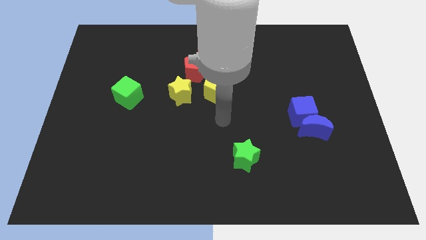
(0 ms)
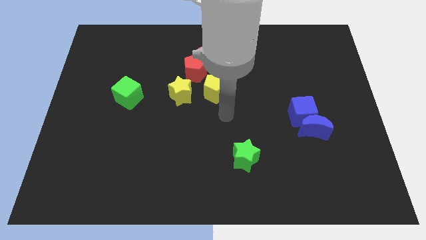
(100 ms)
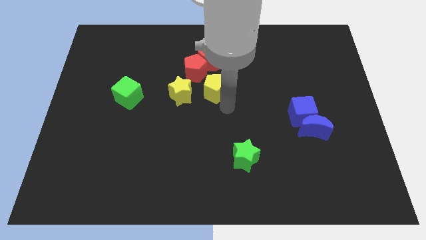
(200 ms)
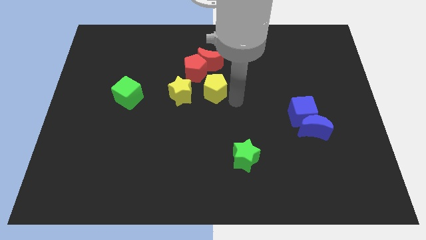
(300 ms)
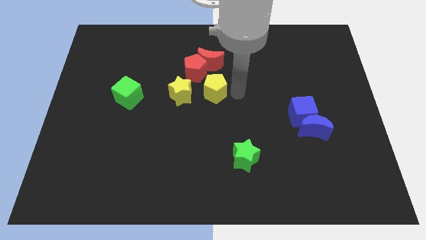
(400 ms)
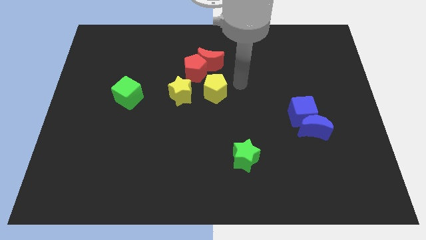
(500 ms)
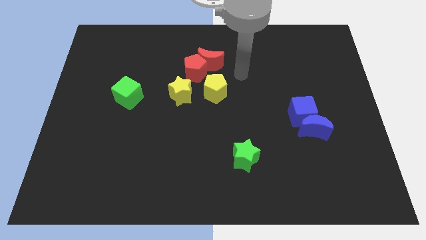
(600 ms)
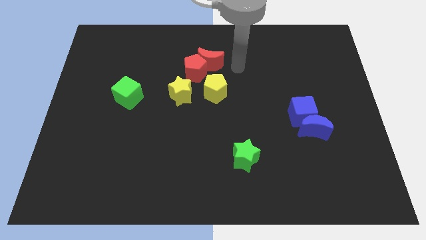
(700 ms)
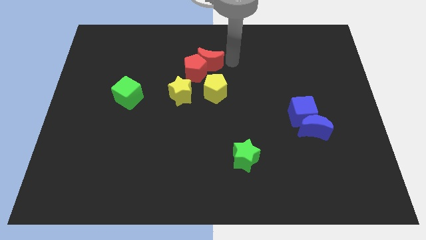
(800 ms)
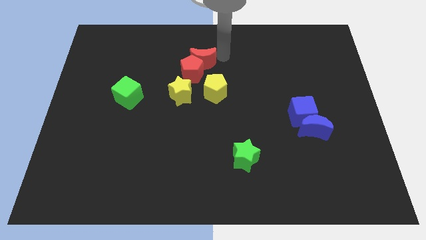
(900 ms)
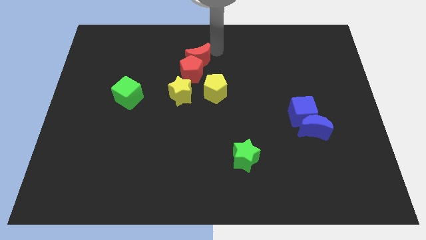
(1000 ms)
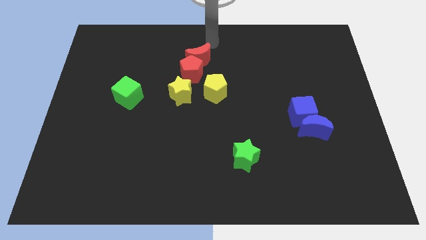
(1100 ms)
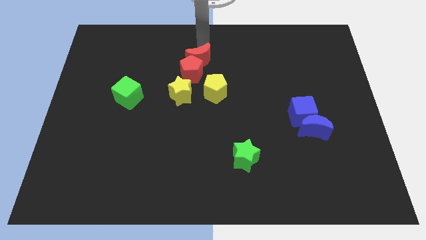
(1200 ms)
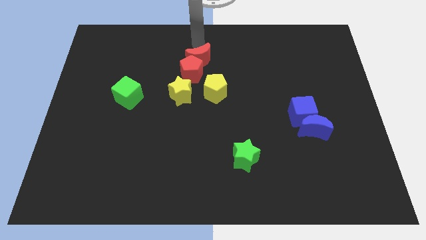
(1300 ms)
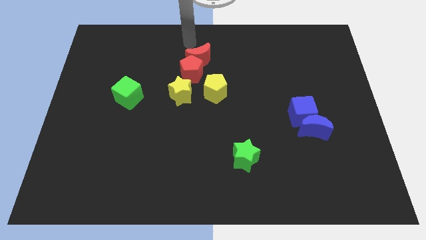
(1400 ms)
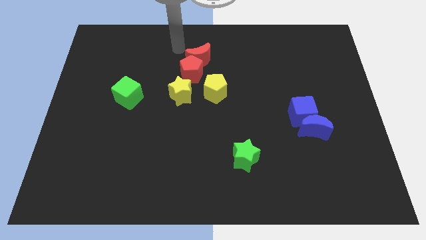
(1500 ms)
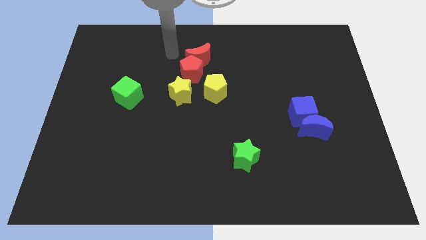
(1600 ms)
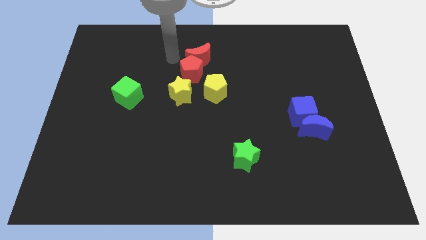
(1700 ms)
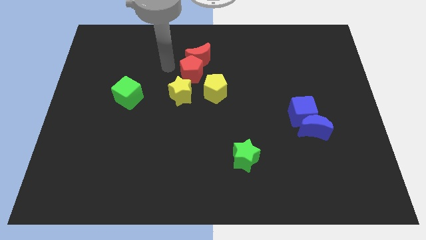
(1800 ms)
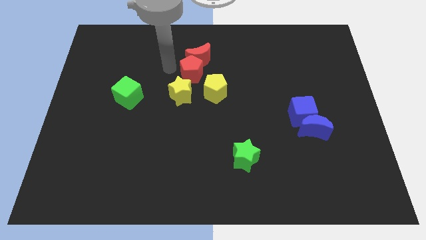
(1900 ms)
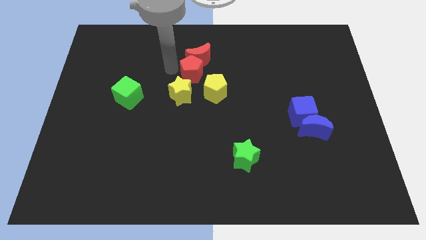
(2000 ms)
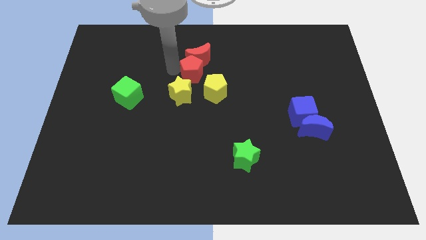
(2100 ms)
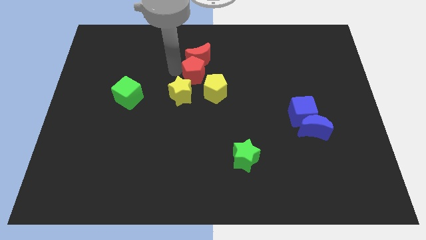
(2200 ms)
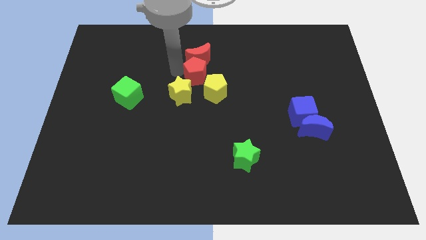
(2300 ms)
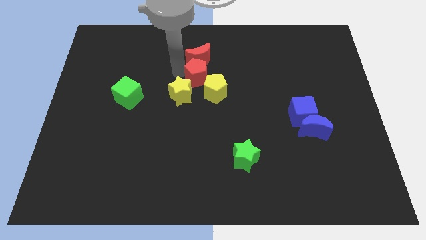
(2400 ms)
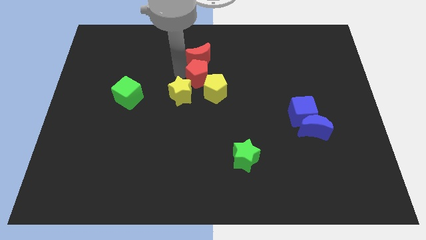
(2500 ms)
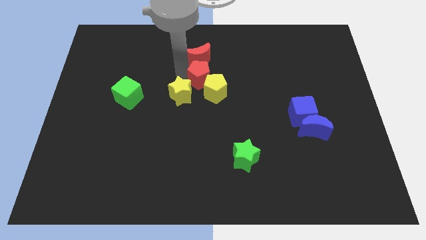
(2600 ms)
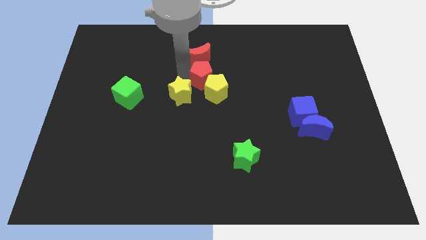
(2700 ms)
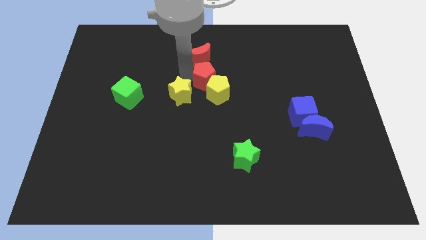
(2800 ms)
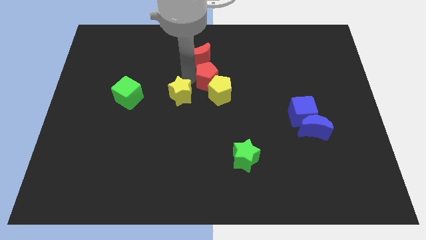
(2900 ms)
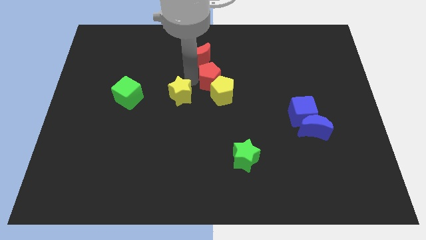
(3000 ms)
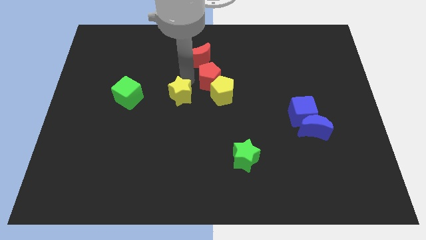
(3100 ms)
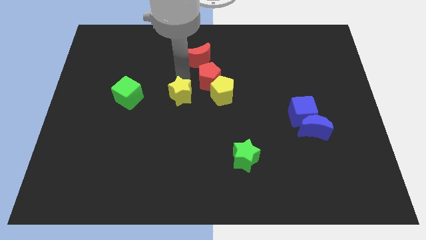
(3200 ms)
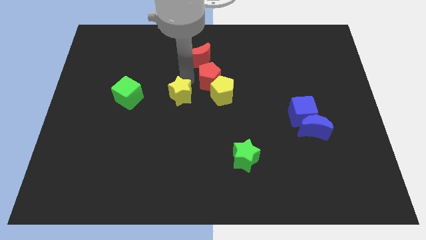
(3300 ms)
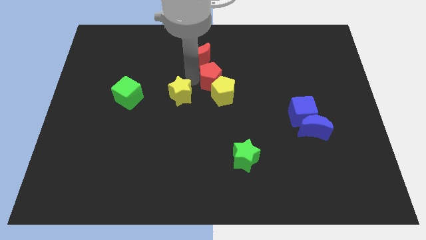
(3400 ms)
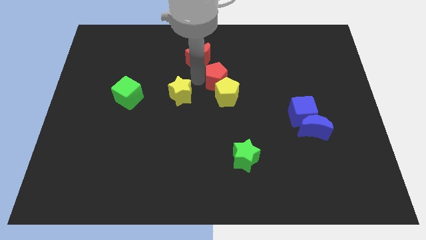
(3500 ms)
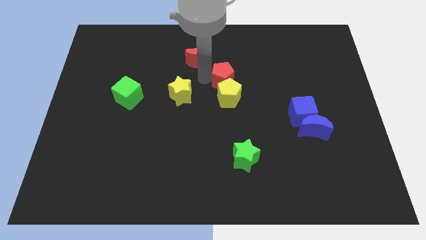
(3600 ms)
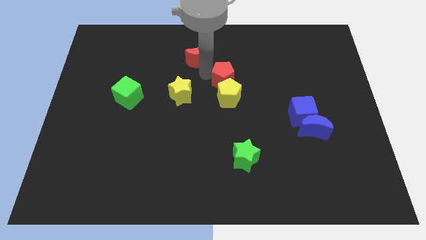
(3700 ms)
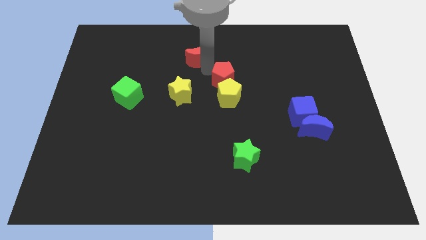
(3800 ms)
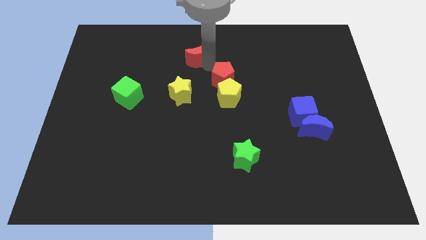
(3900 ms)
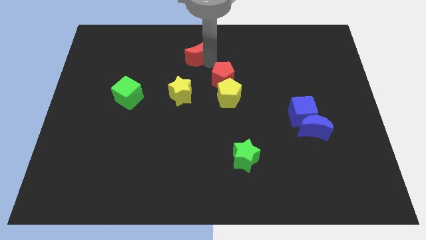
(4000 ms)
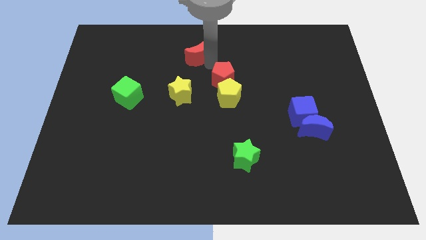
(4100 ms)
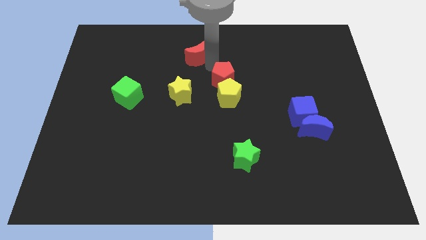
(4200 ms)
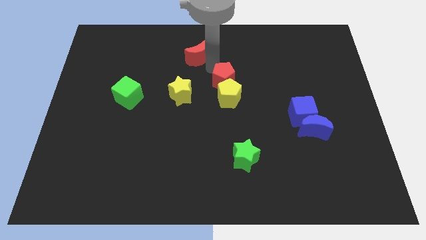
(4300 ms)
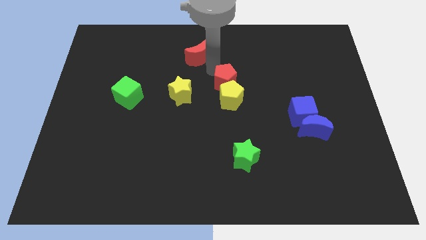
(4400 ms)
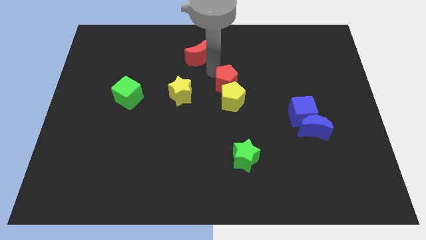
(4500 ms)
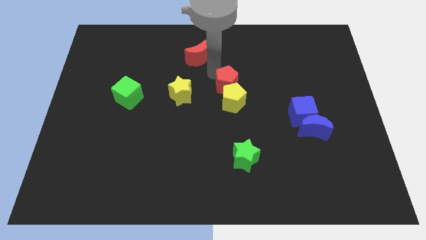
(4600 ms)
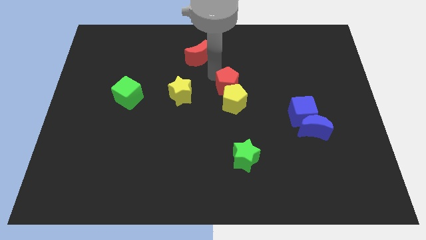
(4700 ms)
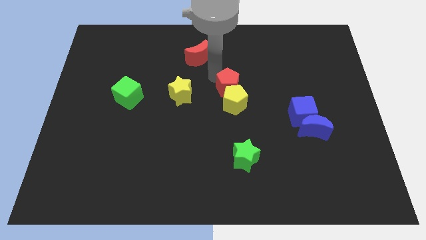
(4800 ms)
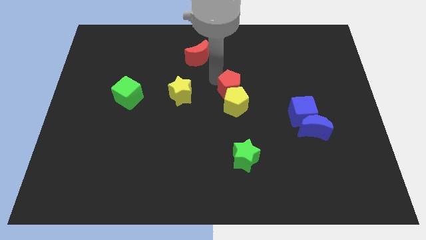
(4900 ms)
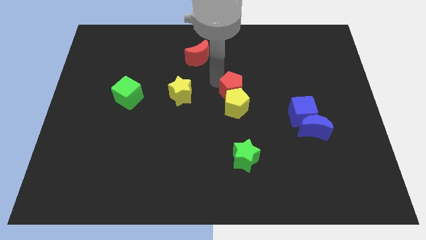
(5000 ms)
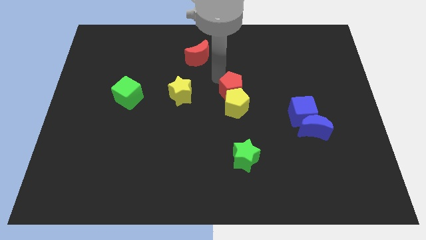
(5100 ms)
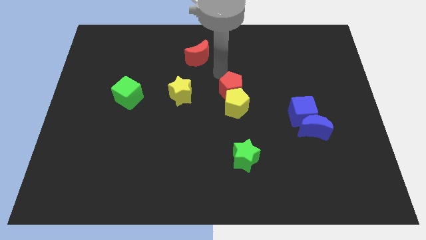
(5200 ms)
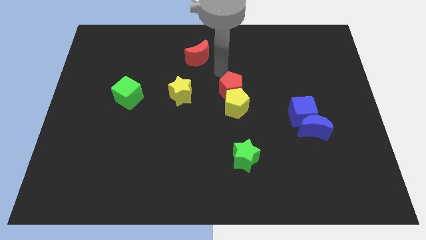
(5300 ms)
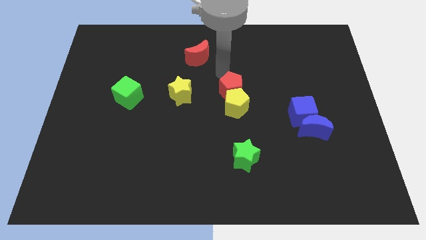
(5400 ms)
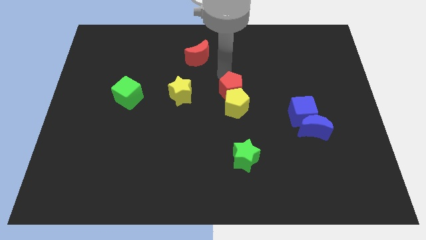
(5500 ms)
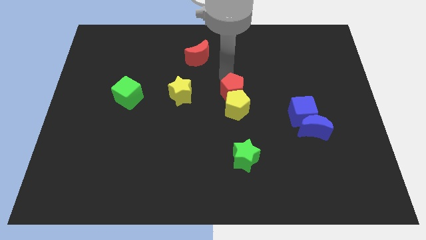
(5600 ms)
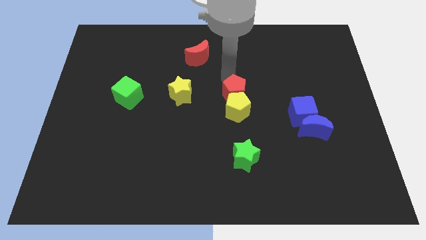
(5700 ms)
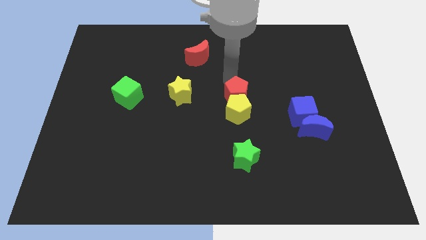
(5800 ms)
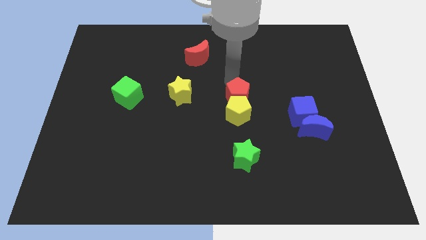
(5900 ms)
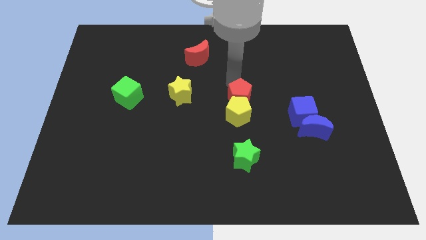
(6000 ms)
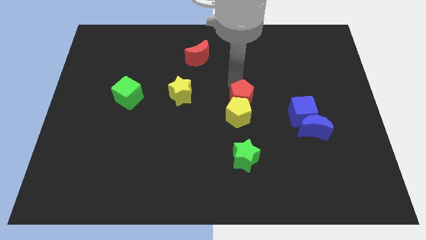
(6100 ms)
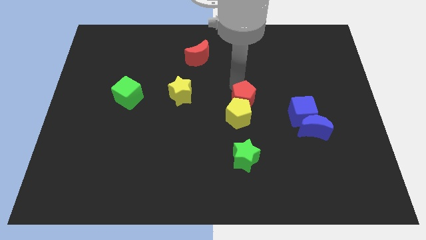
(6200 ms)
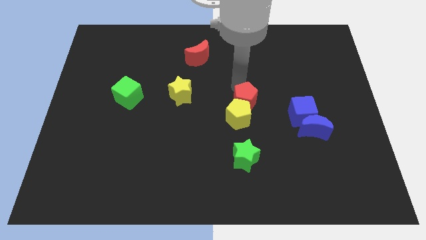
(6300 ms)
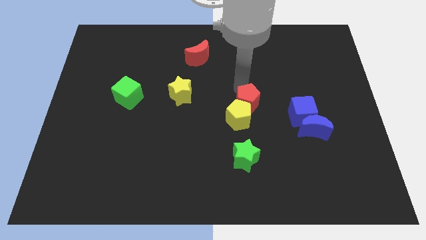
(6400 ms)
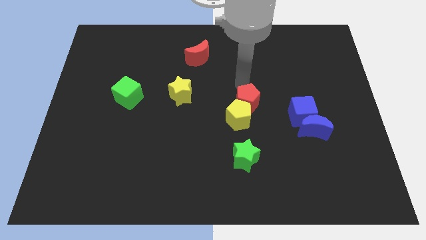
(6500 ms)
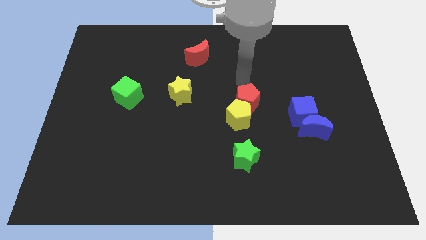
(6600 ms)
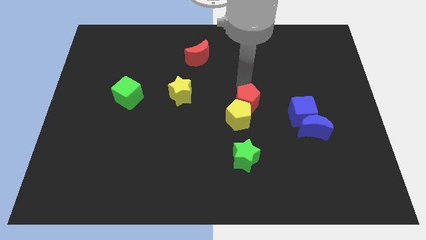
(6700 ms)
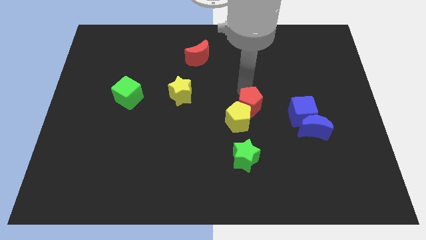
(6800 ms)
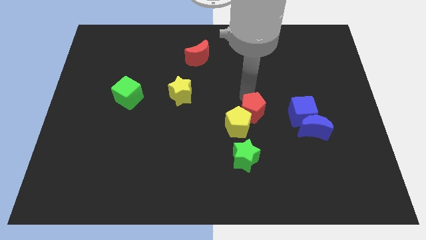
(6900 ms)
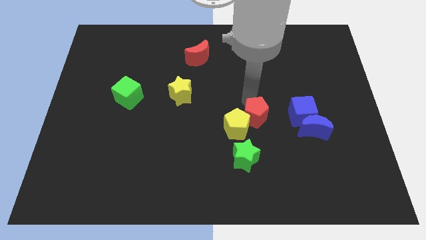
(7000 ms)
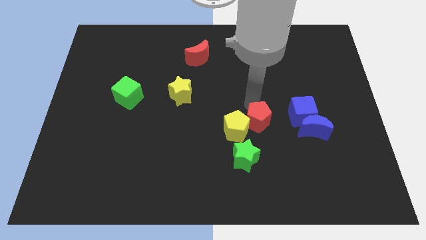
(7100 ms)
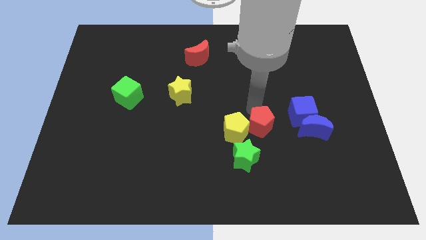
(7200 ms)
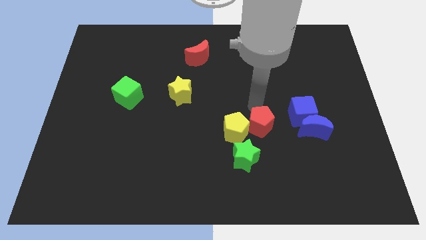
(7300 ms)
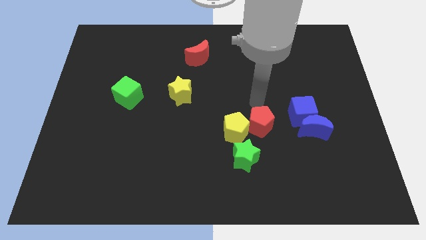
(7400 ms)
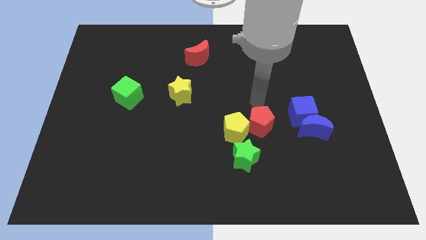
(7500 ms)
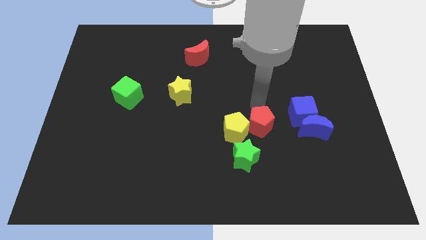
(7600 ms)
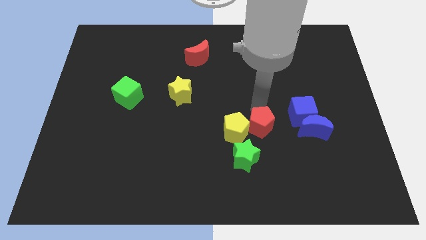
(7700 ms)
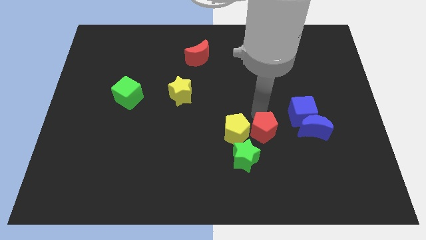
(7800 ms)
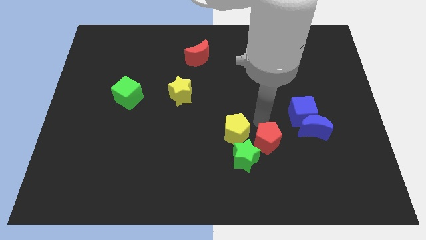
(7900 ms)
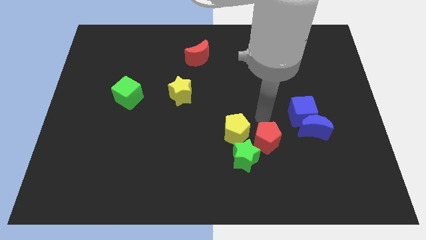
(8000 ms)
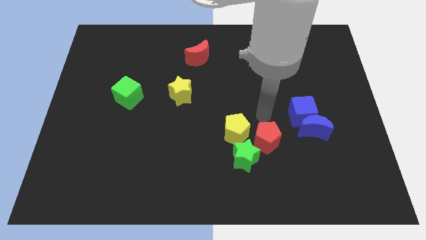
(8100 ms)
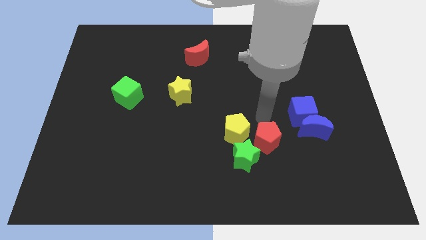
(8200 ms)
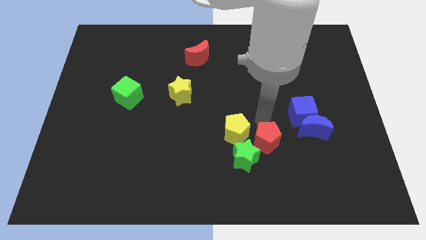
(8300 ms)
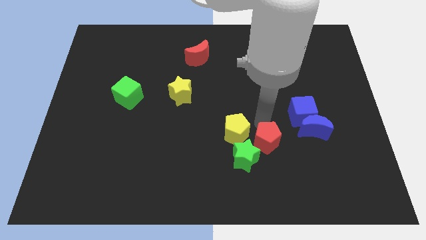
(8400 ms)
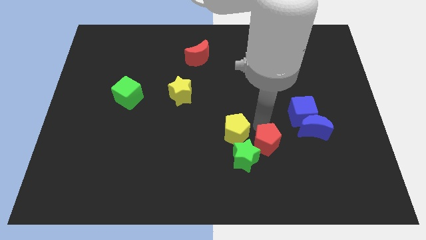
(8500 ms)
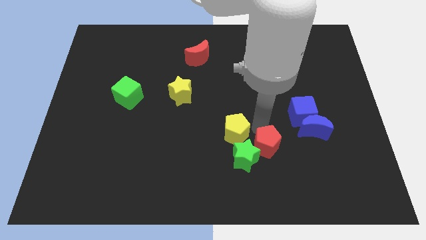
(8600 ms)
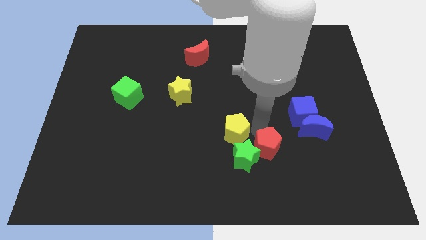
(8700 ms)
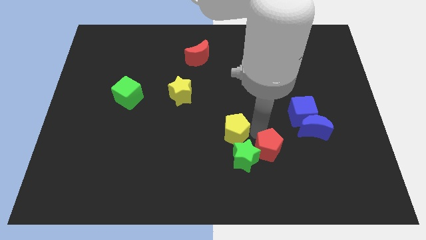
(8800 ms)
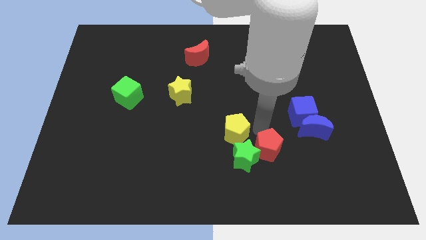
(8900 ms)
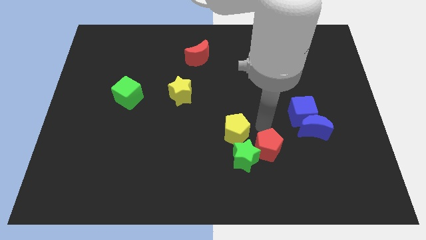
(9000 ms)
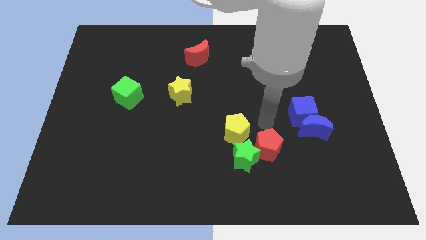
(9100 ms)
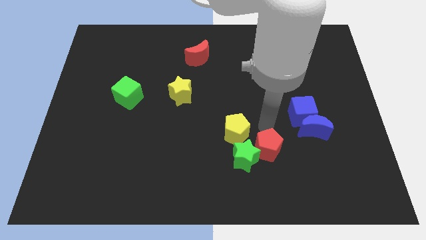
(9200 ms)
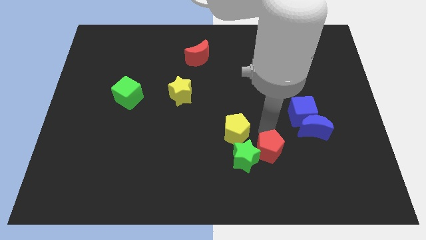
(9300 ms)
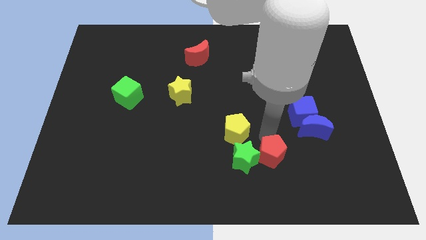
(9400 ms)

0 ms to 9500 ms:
push the red pentagon to the bottom right of the green star
